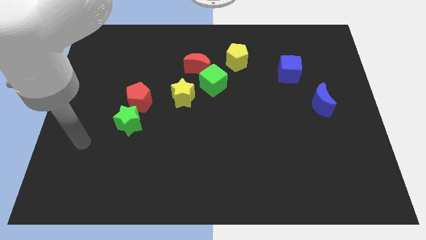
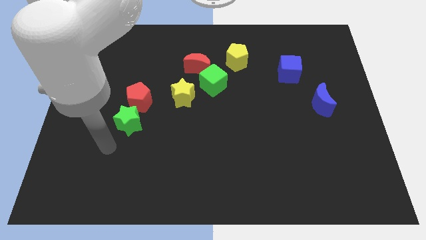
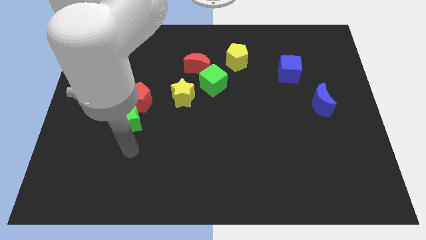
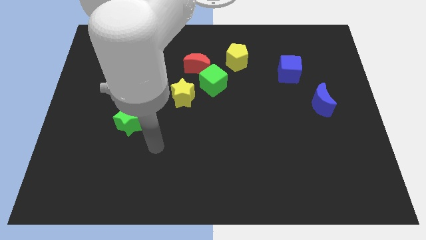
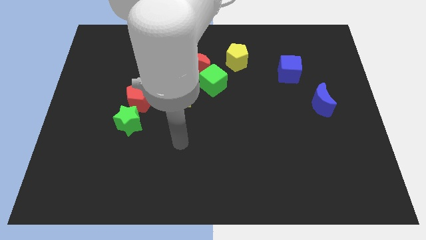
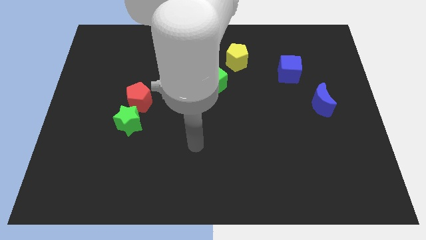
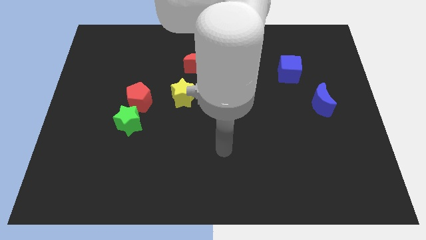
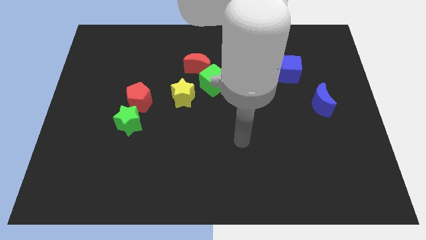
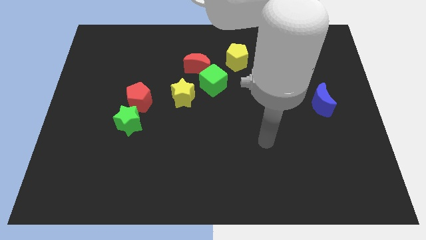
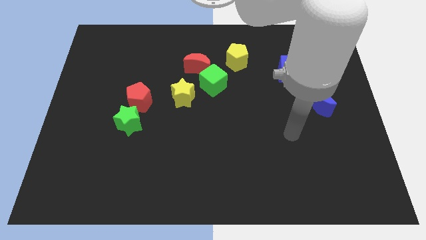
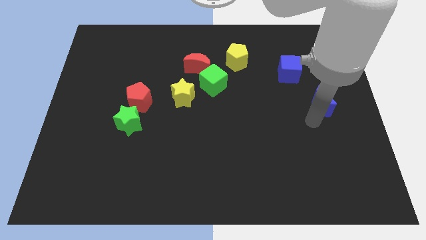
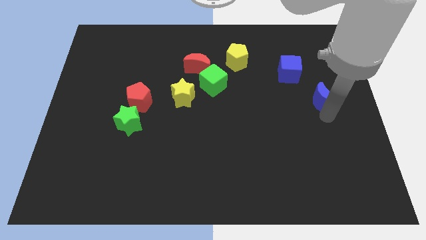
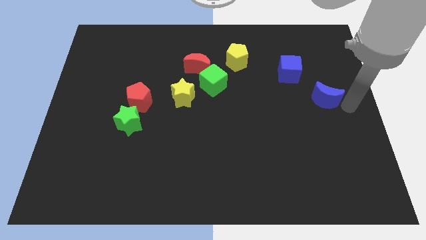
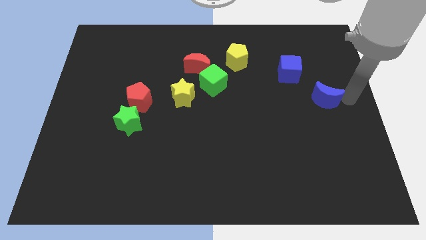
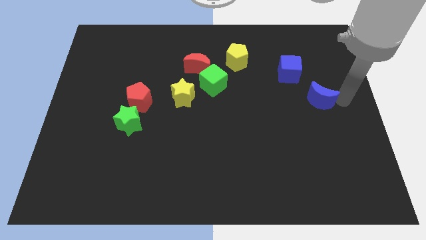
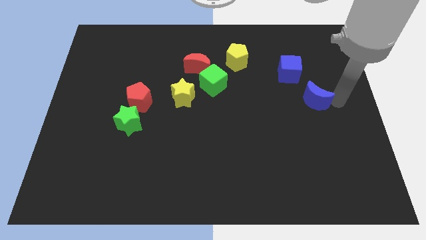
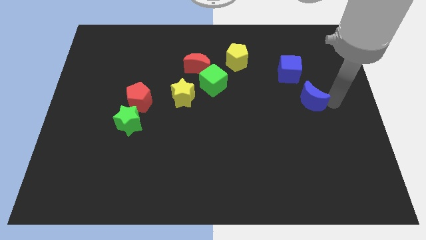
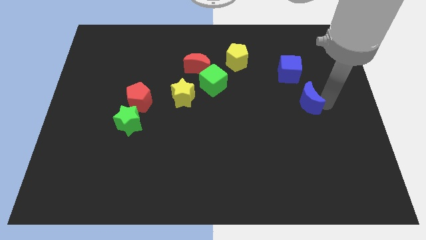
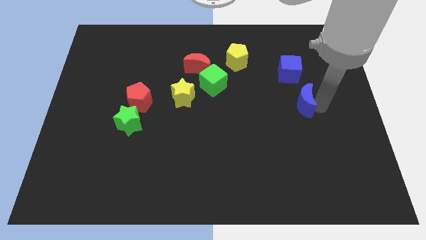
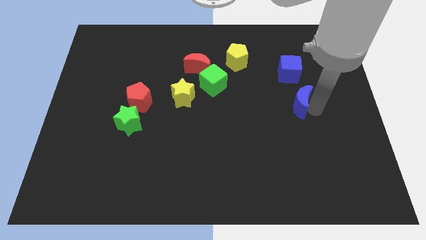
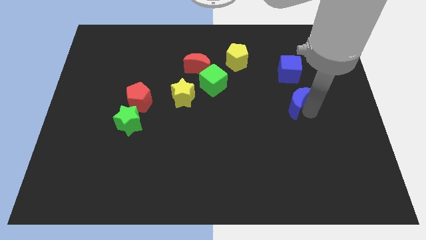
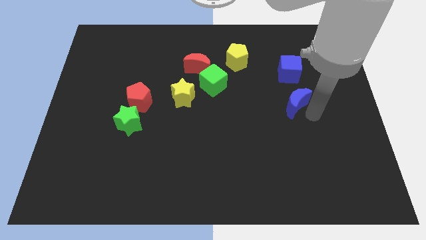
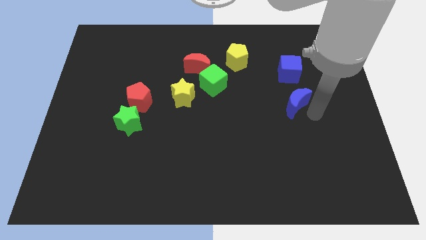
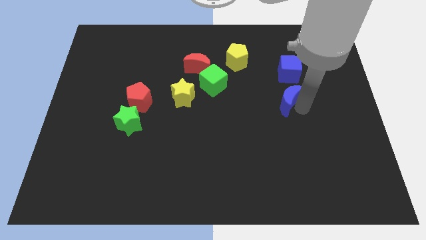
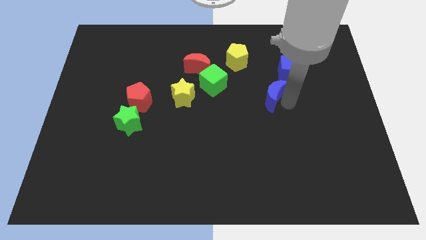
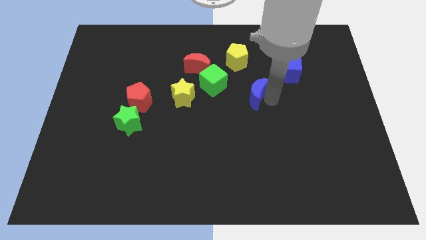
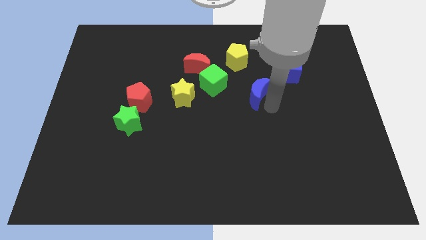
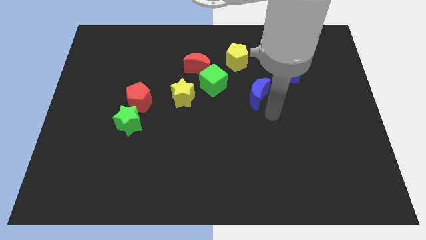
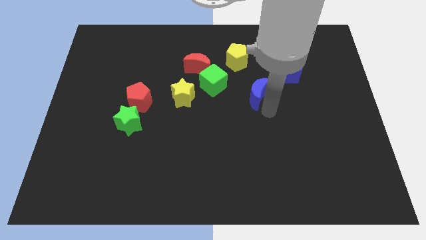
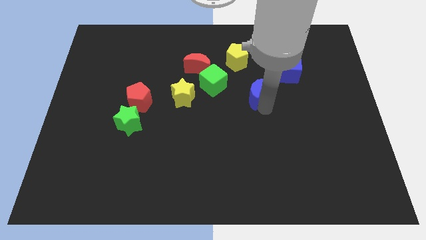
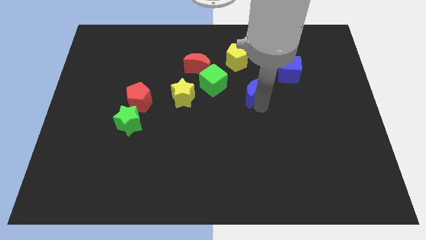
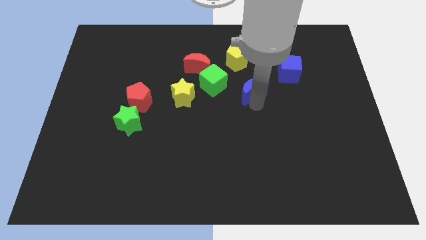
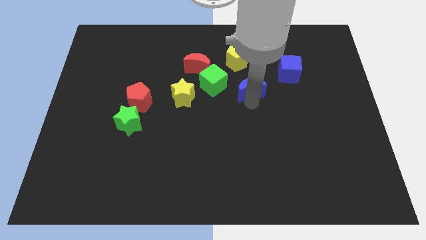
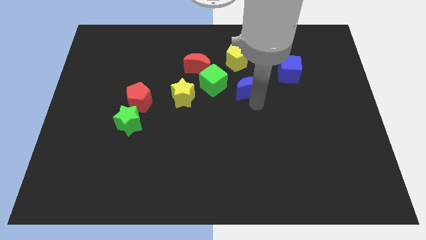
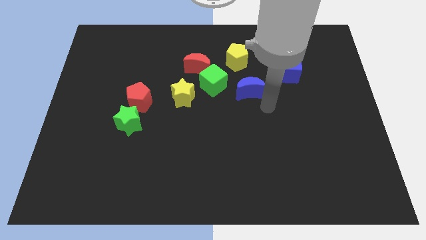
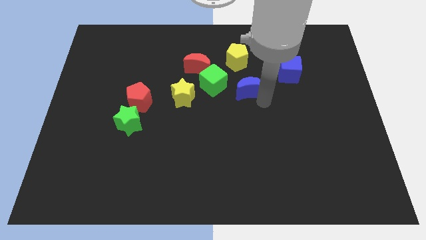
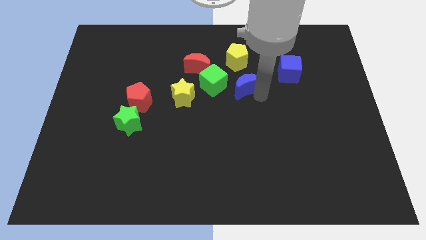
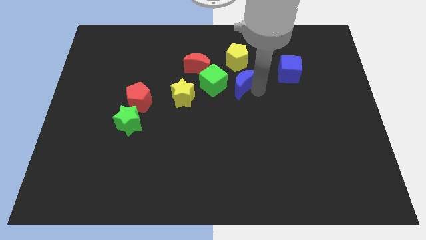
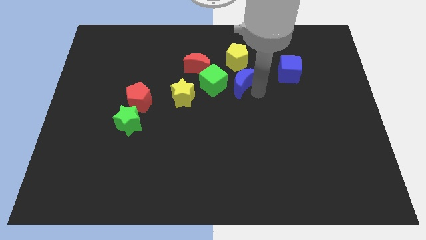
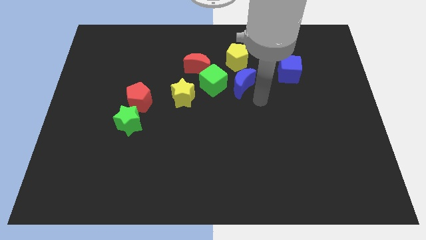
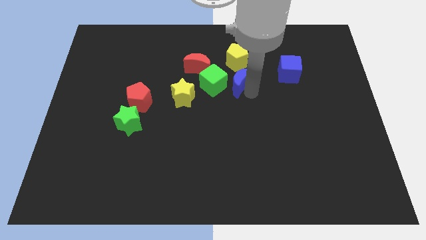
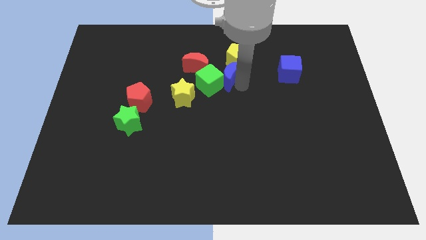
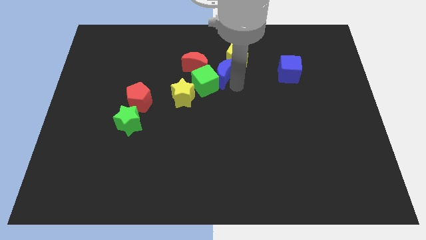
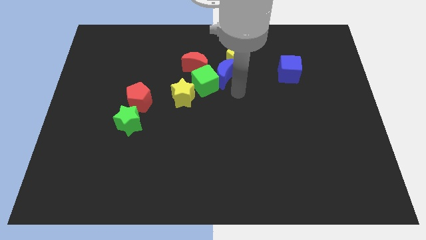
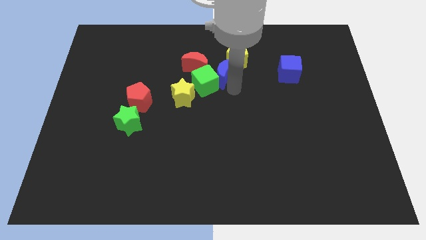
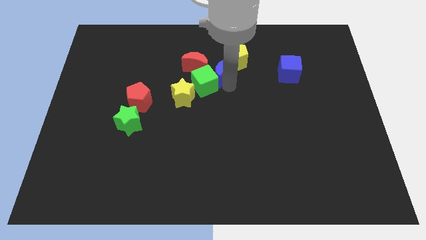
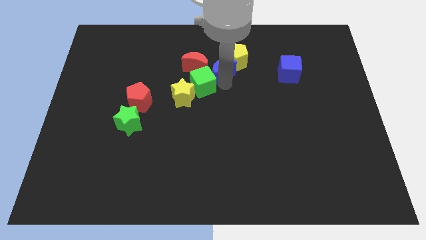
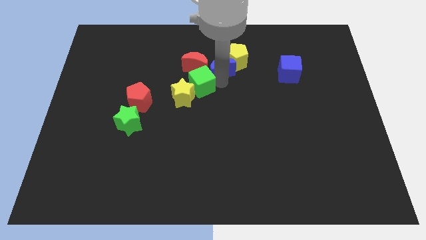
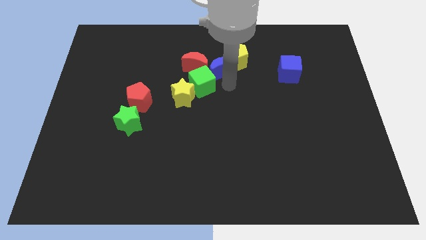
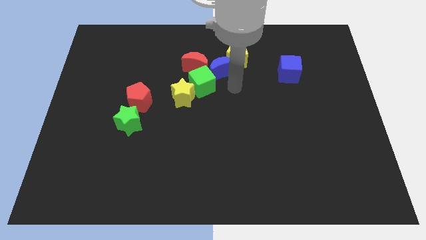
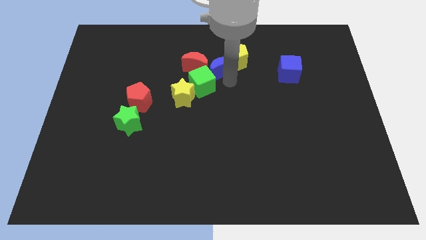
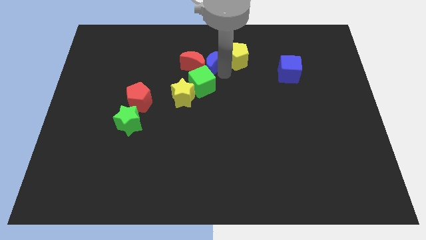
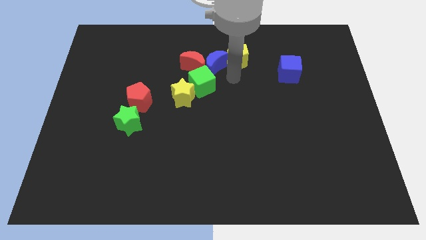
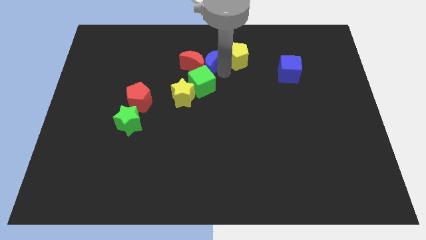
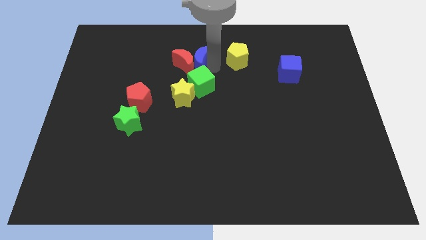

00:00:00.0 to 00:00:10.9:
push the blue moon to the top of the yellow star

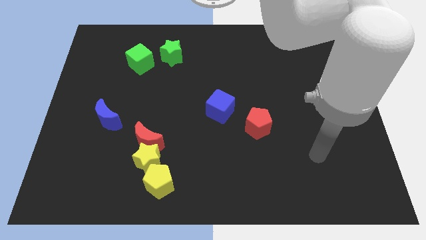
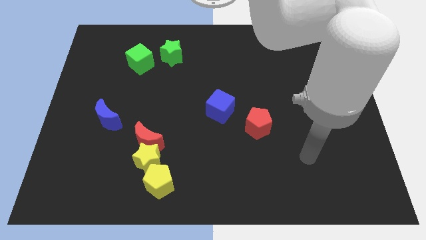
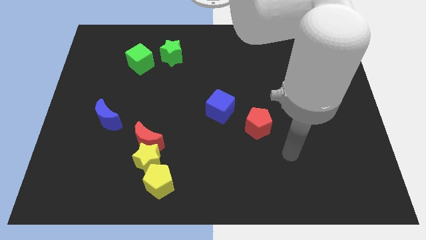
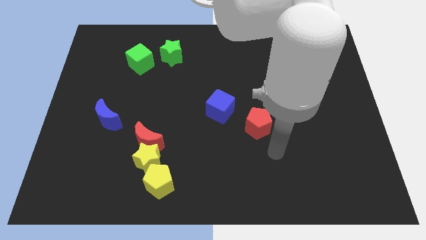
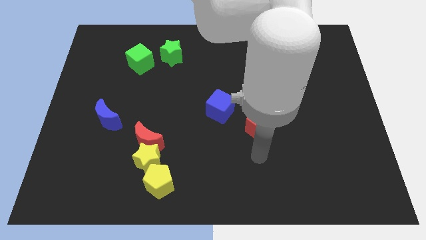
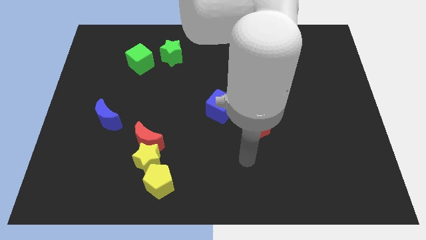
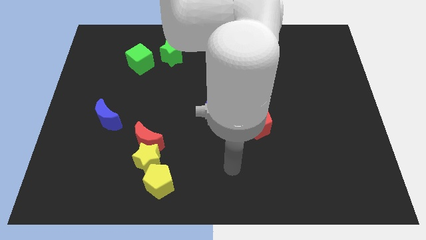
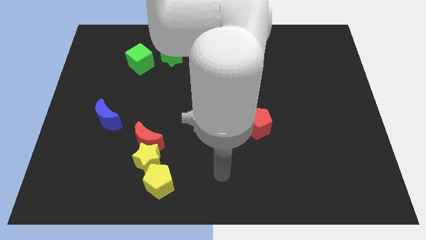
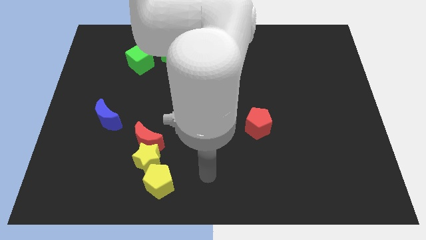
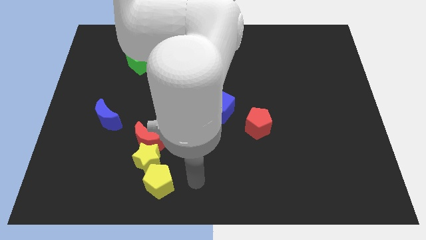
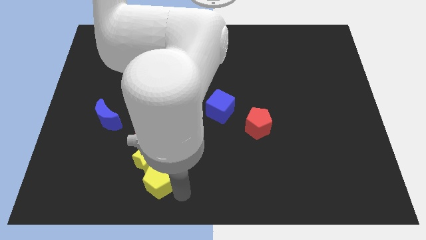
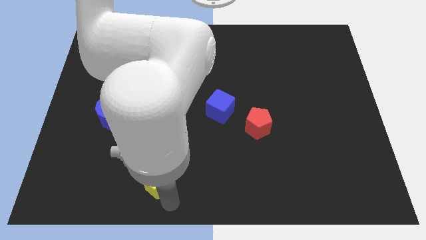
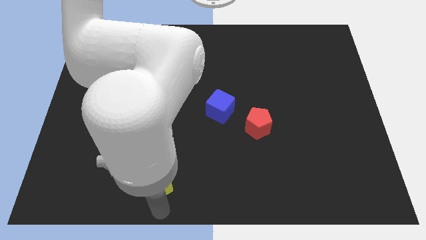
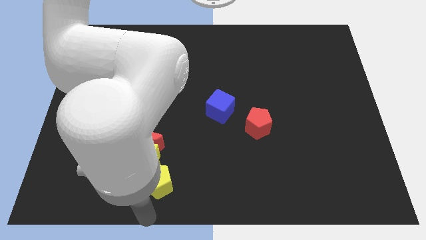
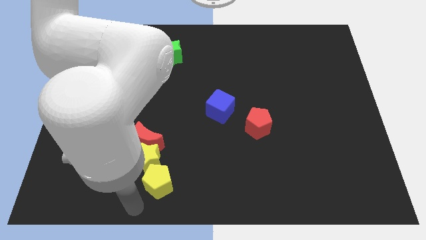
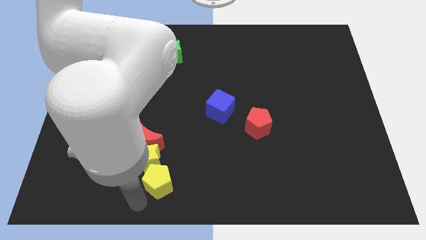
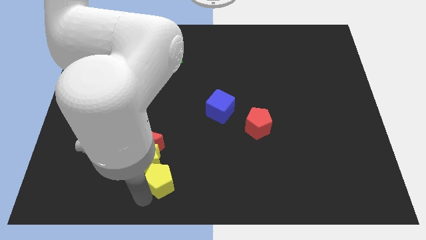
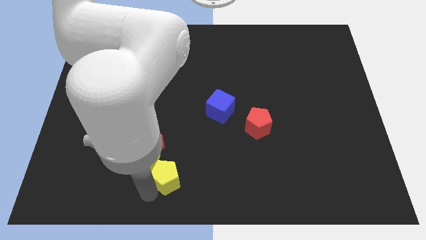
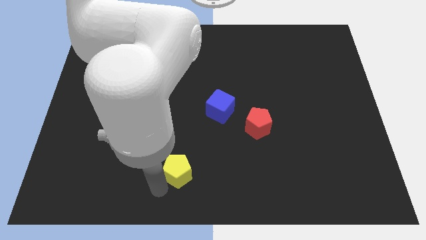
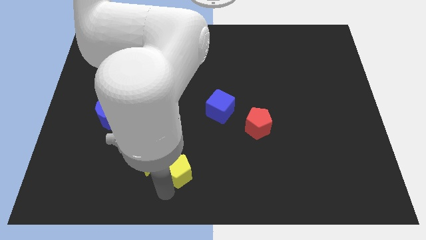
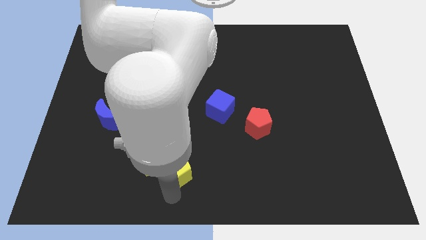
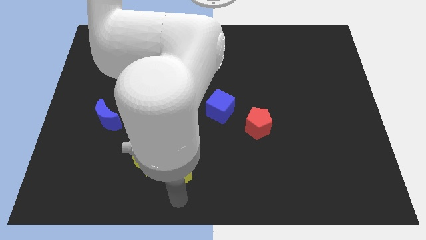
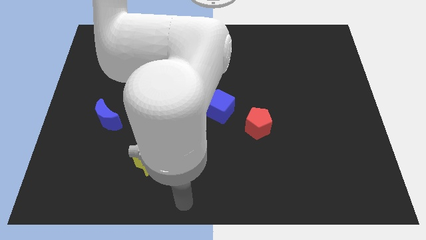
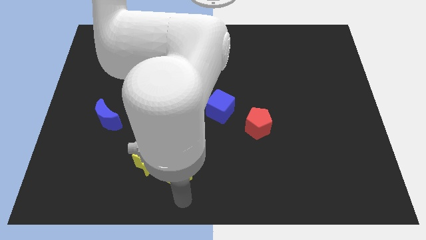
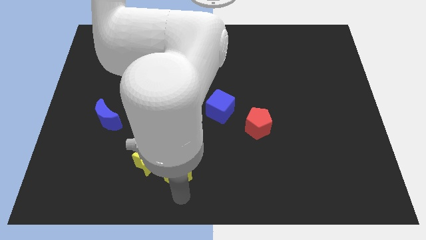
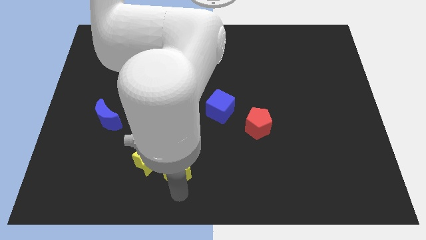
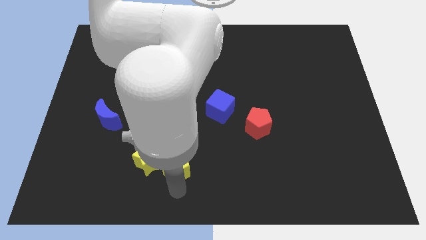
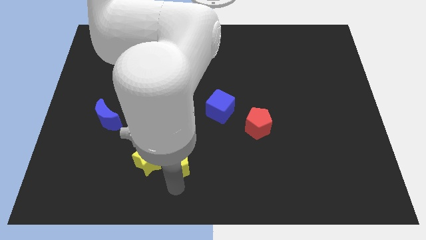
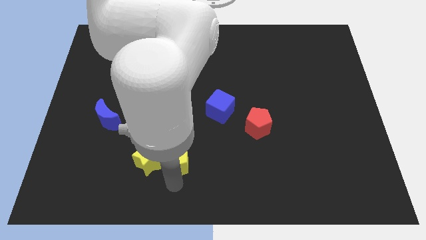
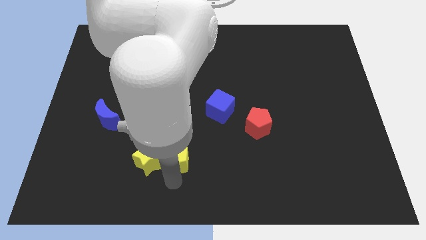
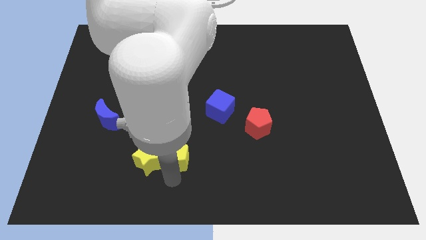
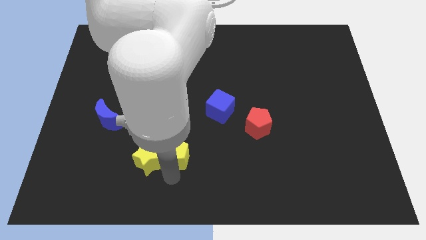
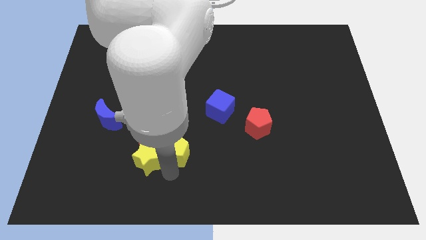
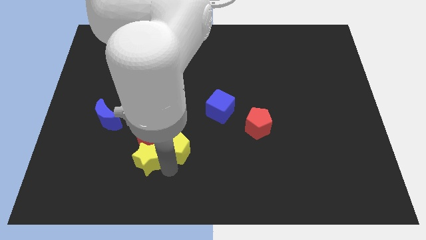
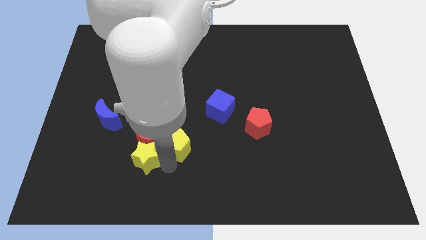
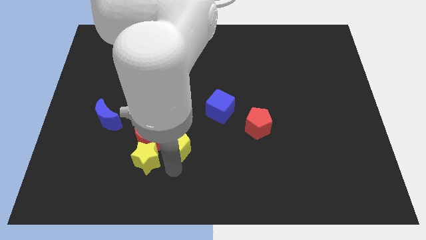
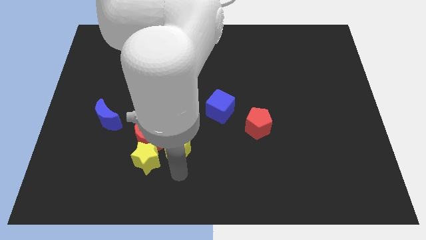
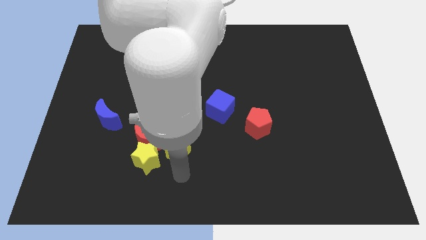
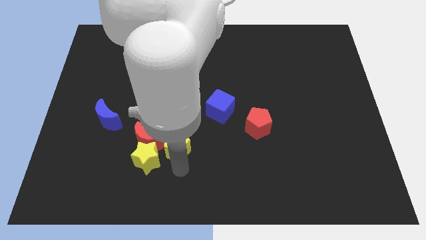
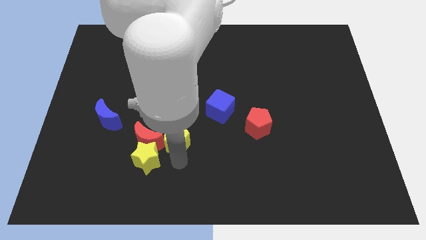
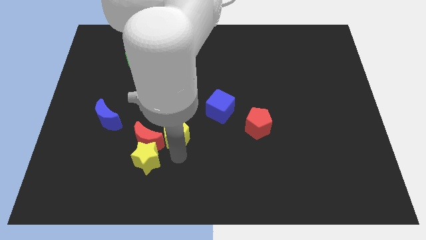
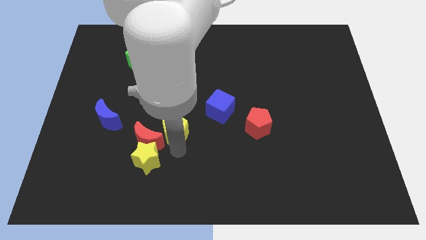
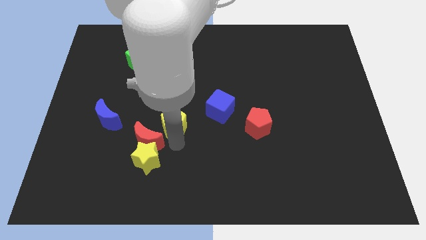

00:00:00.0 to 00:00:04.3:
push the yellow pentagon to the left of the blue cube
